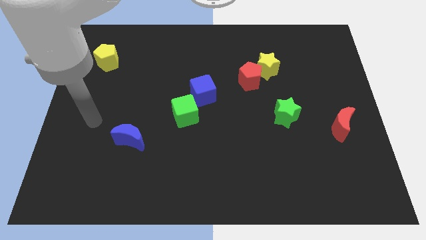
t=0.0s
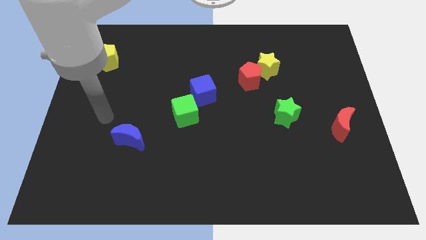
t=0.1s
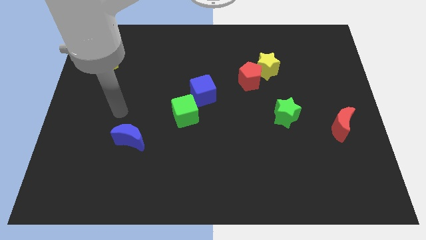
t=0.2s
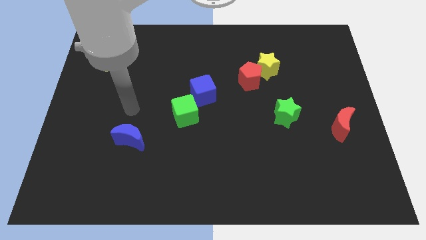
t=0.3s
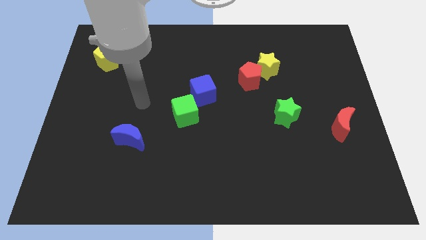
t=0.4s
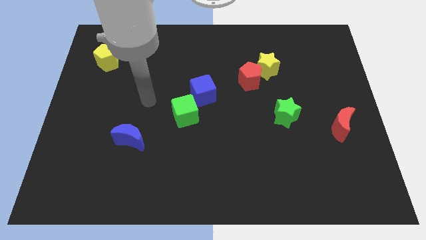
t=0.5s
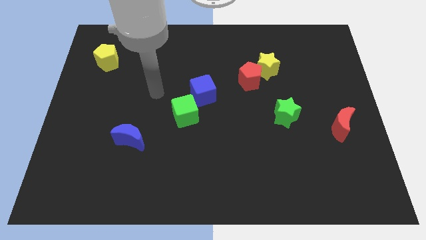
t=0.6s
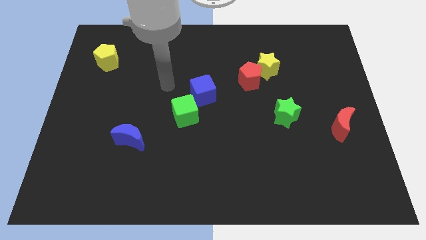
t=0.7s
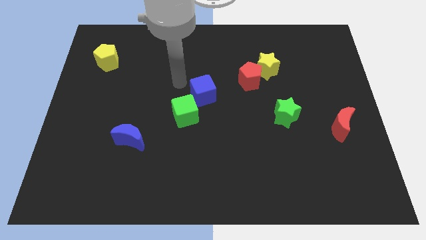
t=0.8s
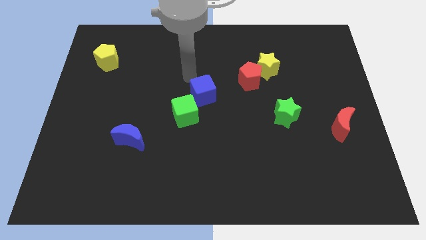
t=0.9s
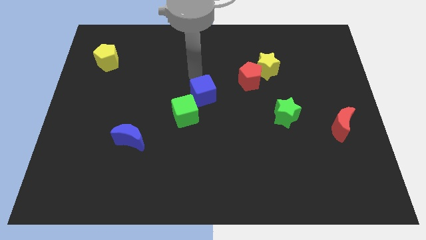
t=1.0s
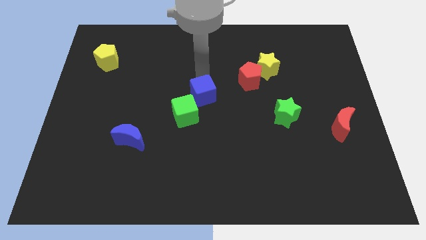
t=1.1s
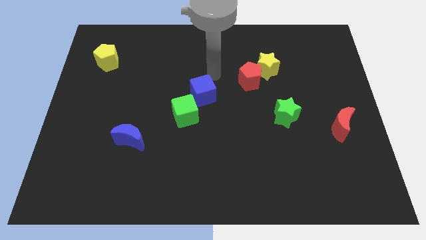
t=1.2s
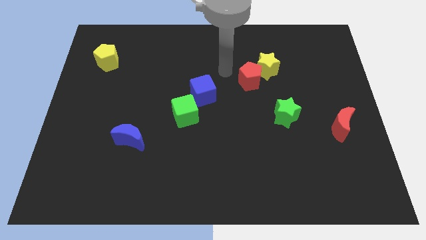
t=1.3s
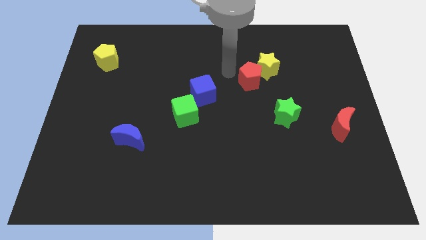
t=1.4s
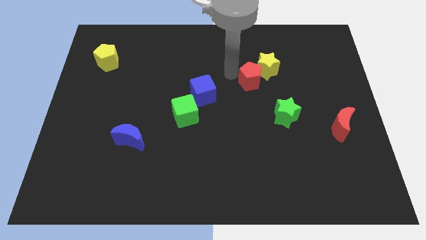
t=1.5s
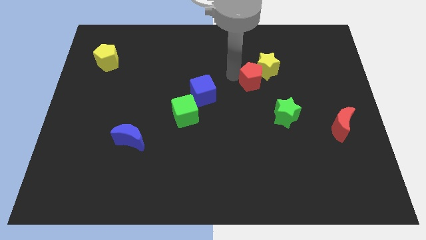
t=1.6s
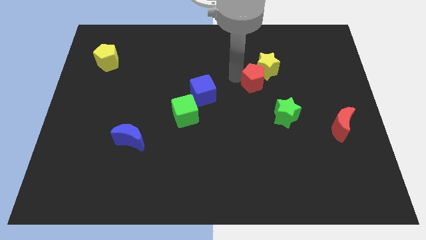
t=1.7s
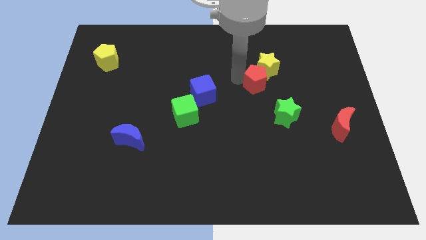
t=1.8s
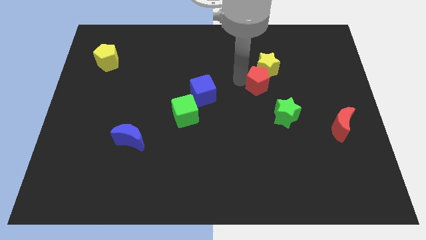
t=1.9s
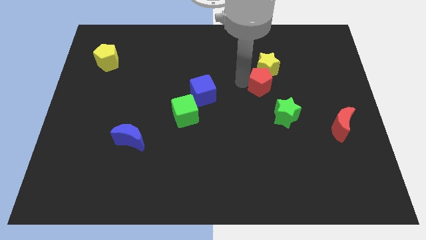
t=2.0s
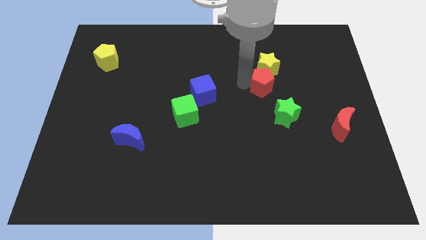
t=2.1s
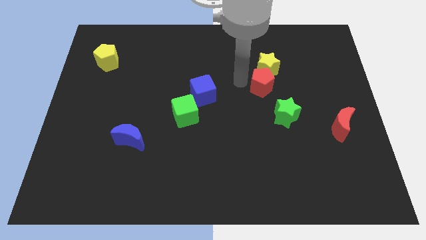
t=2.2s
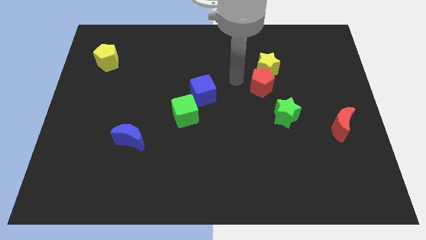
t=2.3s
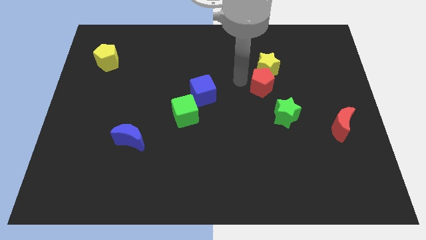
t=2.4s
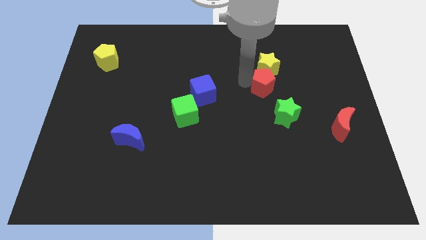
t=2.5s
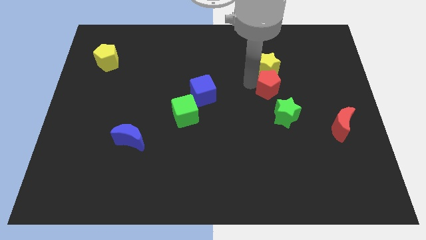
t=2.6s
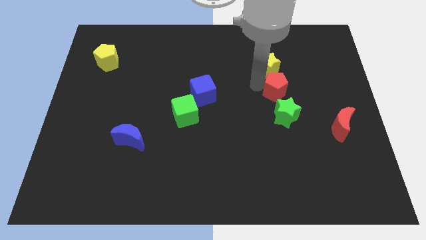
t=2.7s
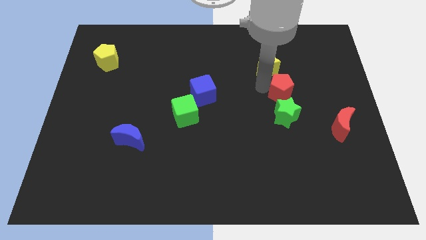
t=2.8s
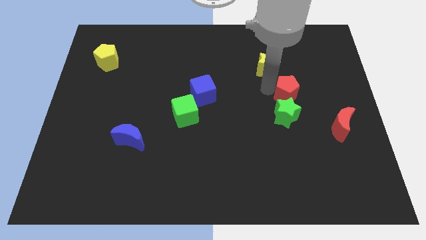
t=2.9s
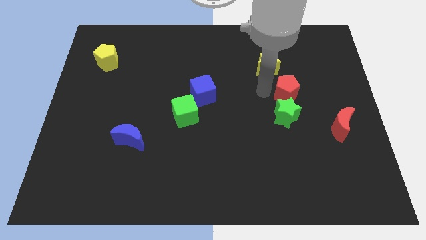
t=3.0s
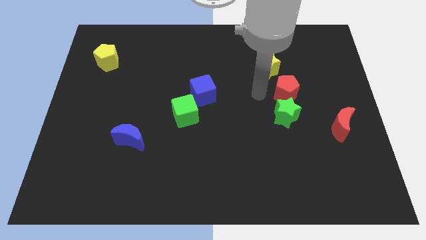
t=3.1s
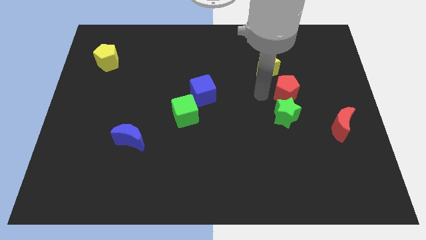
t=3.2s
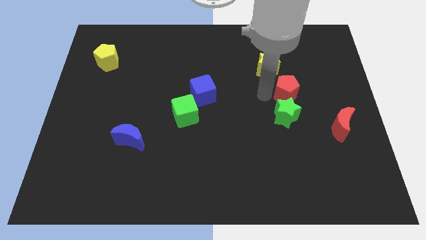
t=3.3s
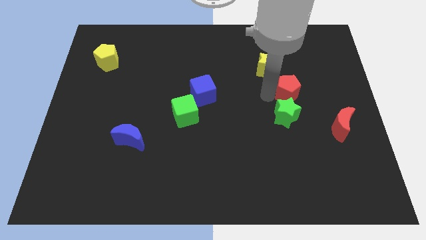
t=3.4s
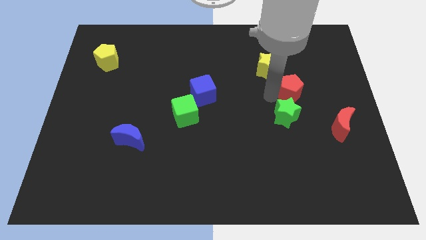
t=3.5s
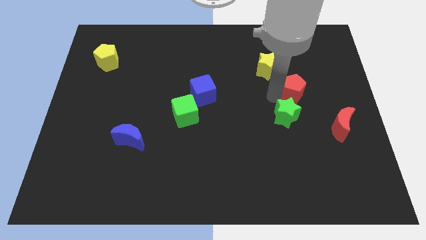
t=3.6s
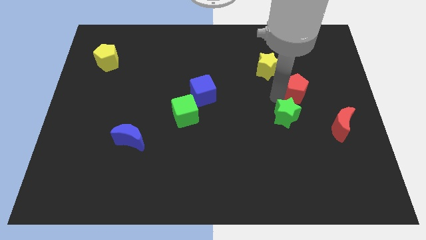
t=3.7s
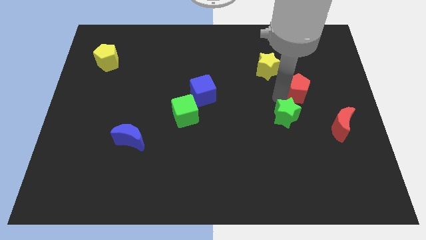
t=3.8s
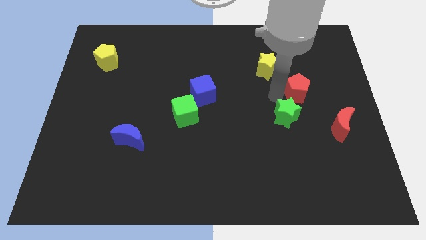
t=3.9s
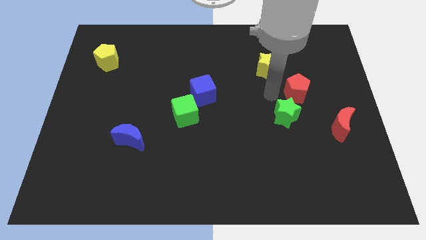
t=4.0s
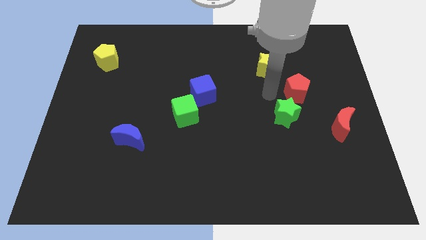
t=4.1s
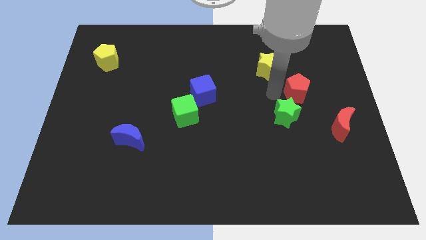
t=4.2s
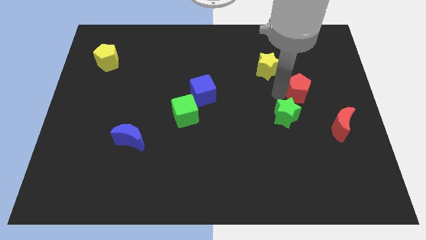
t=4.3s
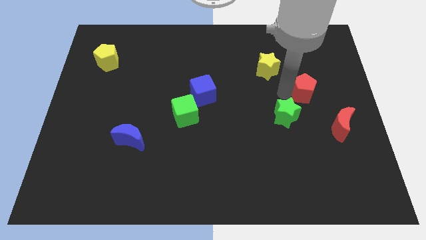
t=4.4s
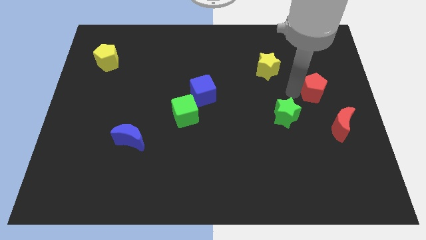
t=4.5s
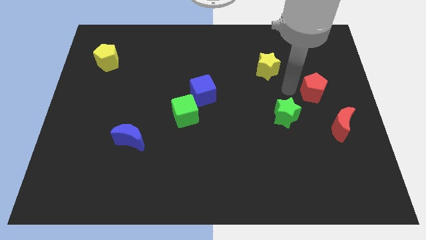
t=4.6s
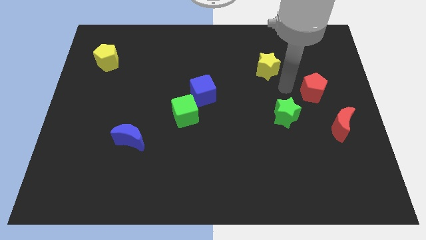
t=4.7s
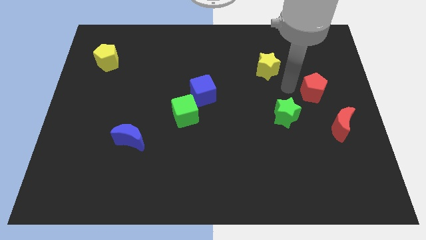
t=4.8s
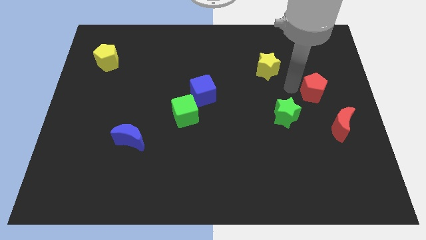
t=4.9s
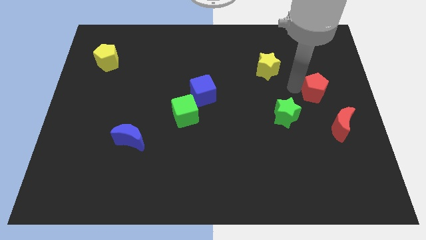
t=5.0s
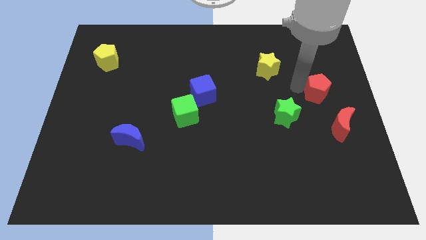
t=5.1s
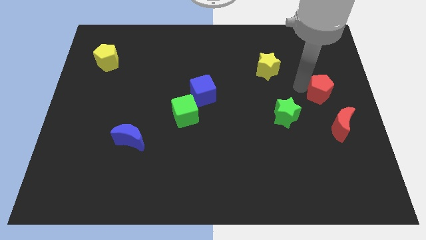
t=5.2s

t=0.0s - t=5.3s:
push the red pentagon to the right side

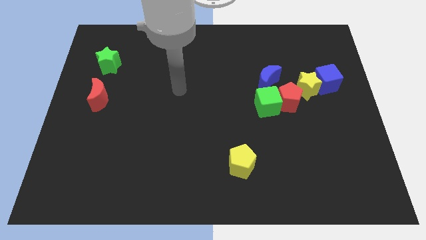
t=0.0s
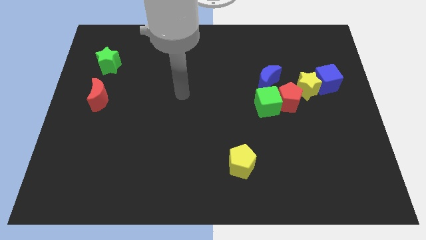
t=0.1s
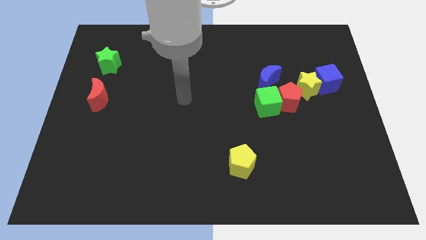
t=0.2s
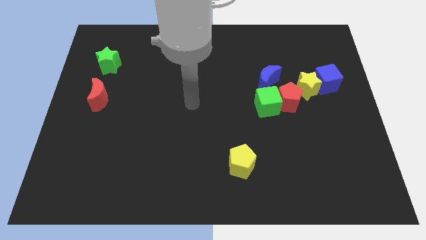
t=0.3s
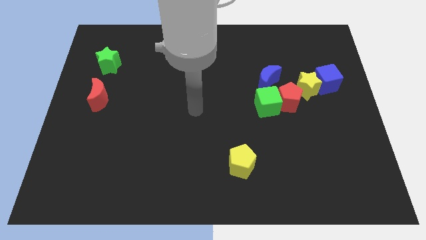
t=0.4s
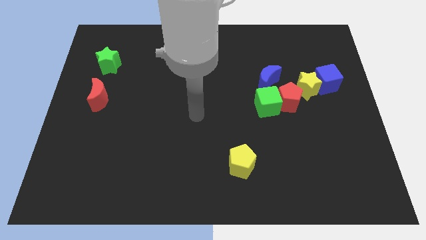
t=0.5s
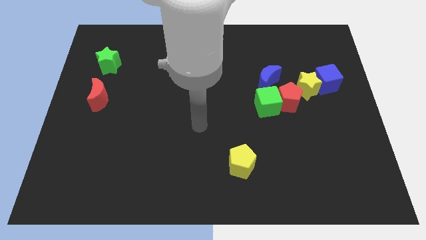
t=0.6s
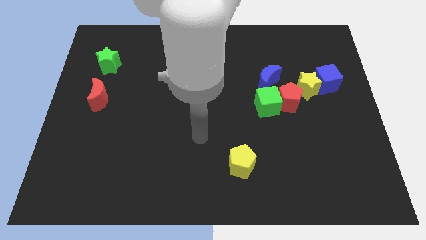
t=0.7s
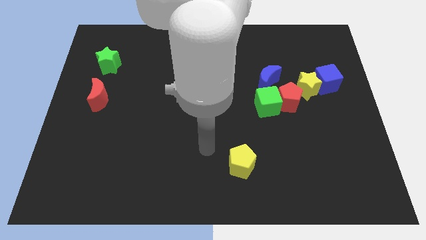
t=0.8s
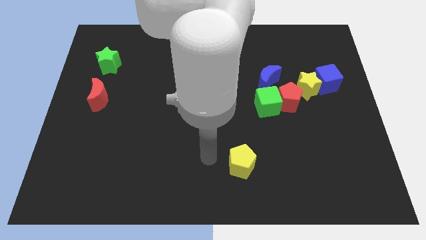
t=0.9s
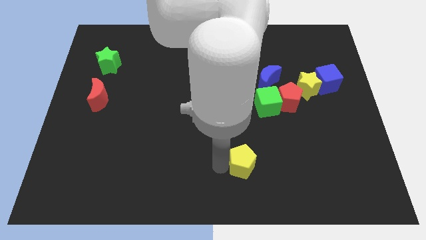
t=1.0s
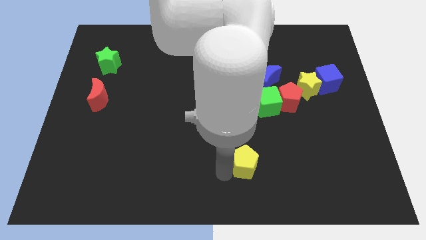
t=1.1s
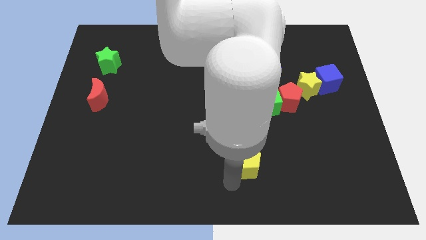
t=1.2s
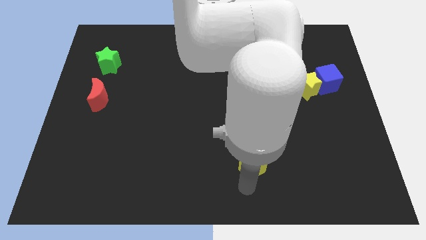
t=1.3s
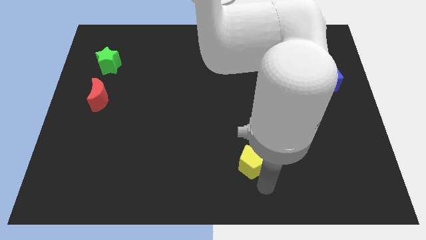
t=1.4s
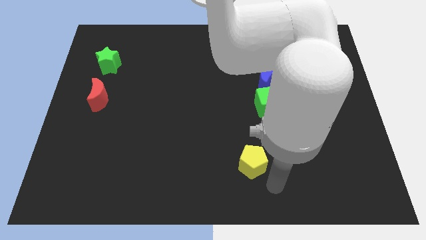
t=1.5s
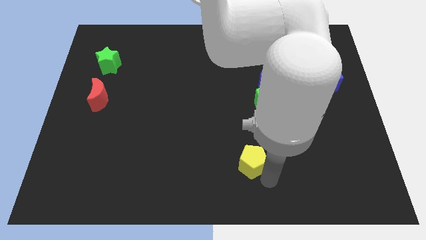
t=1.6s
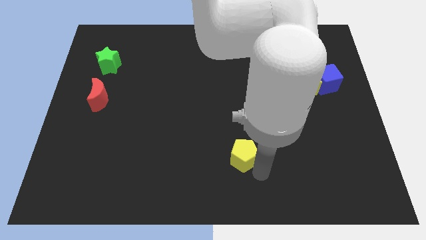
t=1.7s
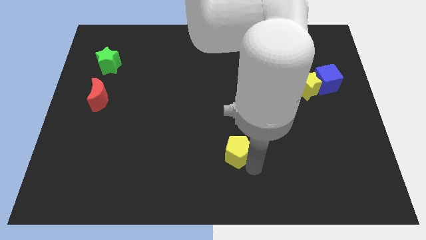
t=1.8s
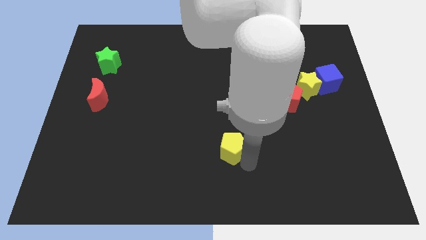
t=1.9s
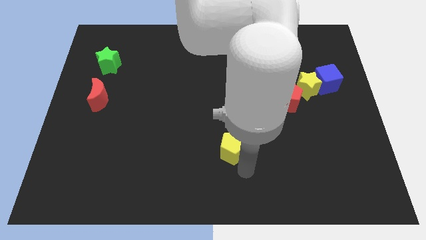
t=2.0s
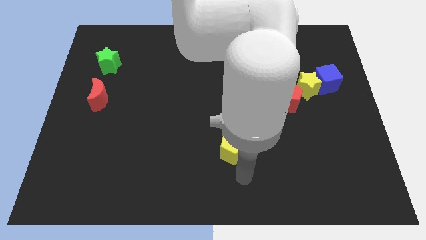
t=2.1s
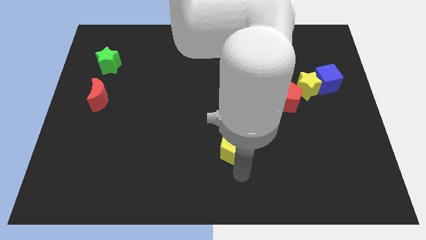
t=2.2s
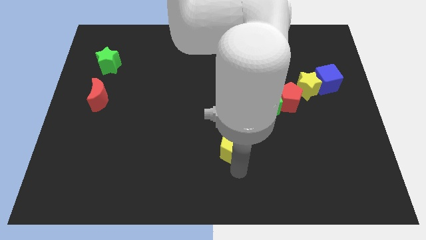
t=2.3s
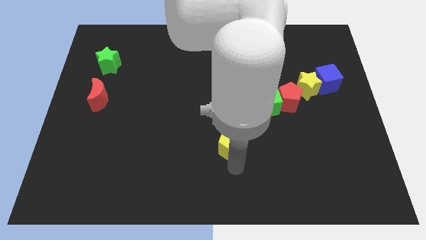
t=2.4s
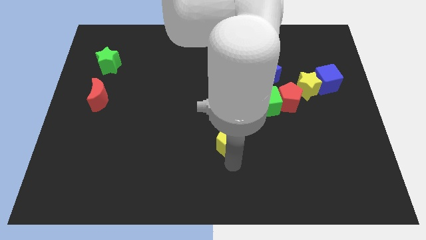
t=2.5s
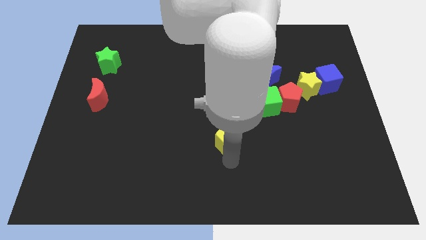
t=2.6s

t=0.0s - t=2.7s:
push the yellow pentagon to the center of the board
